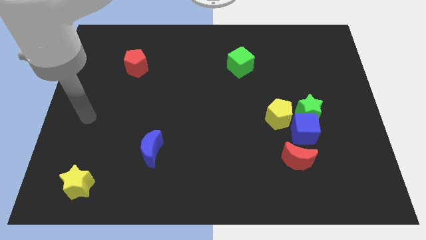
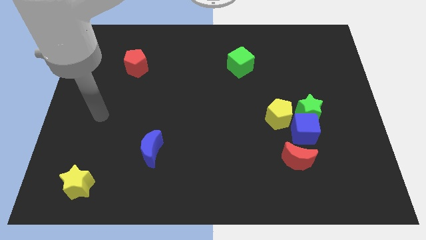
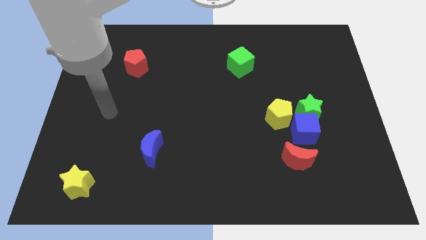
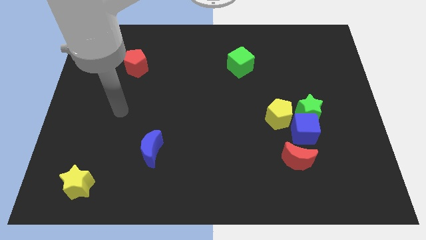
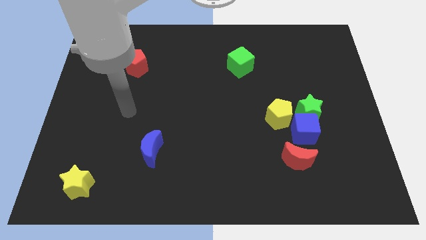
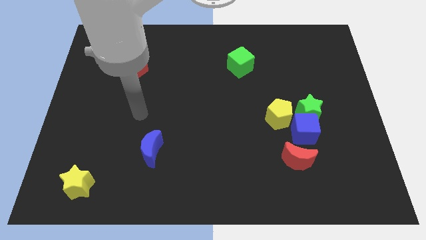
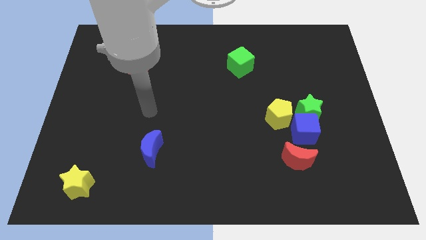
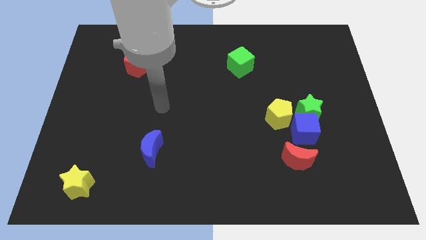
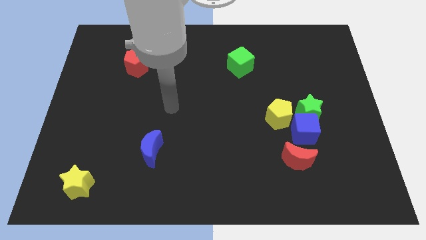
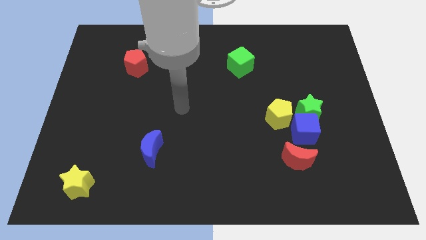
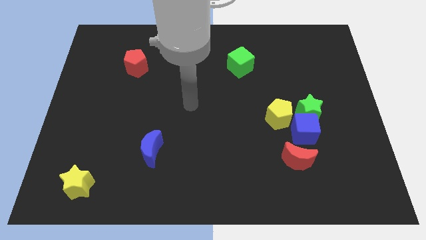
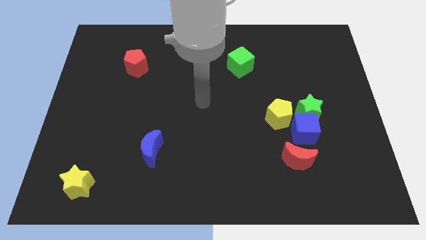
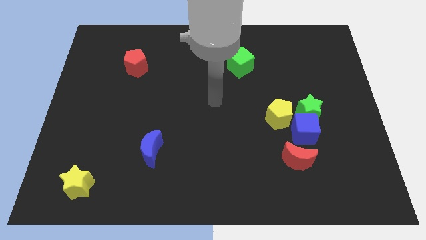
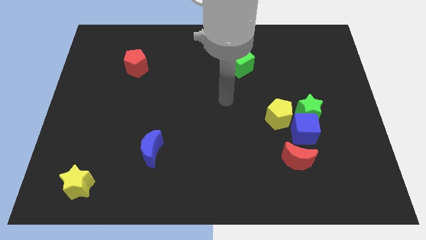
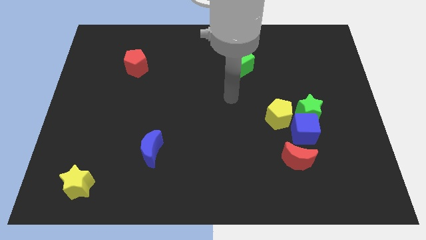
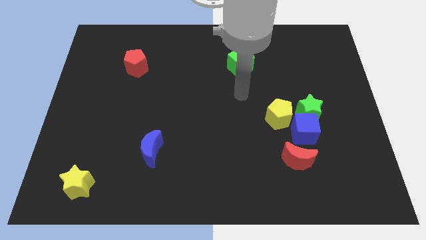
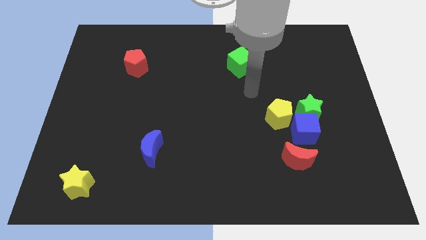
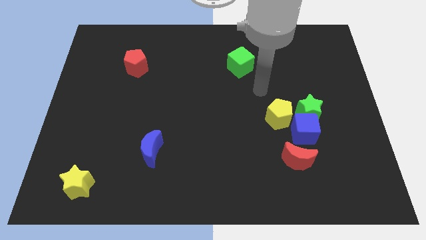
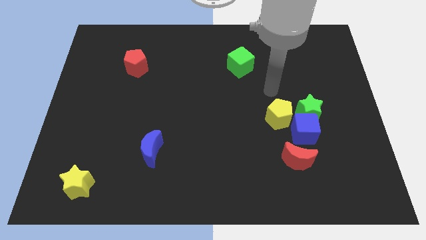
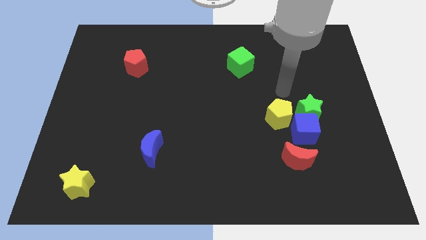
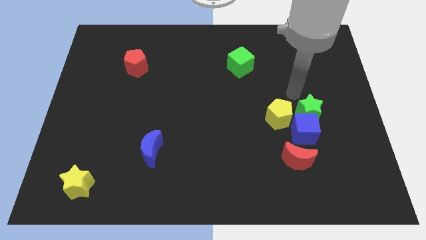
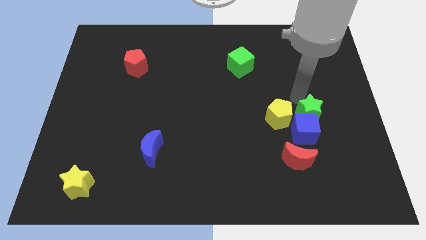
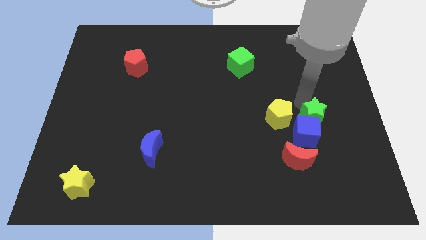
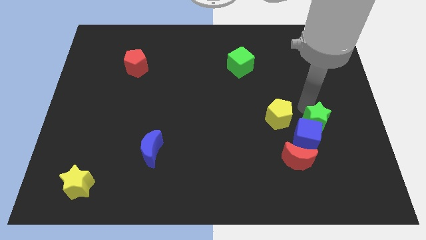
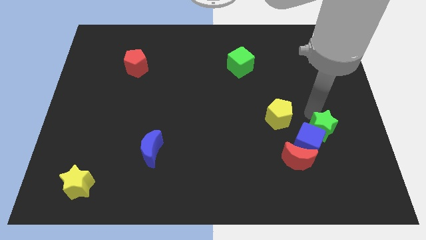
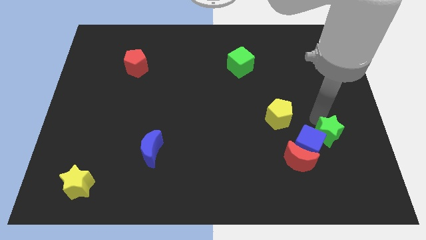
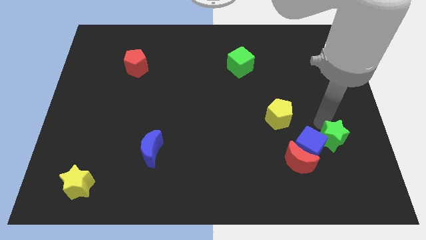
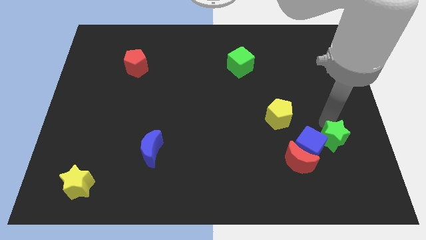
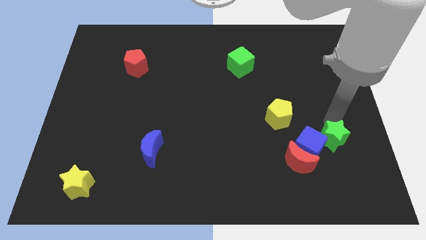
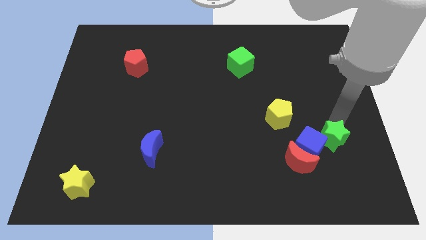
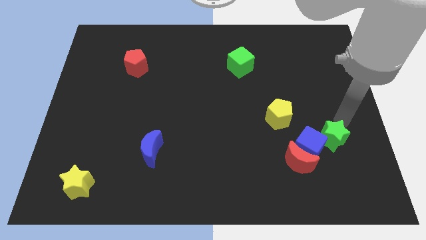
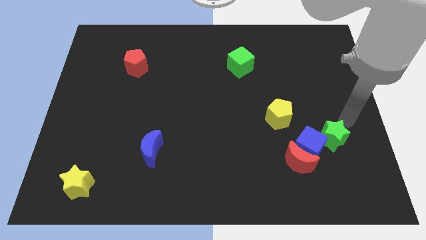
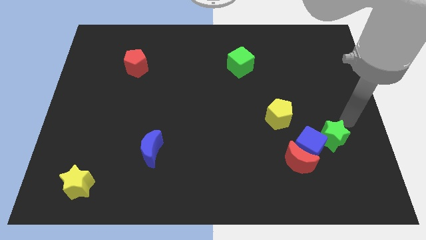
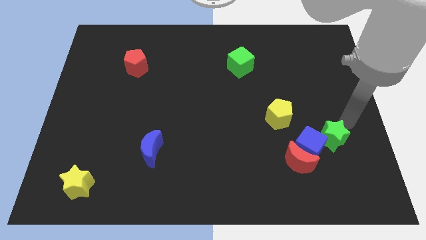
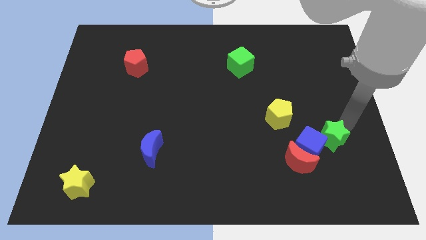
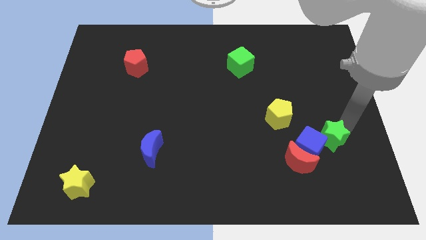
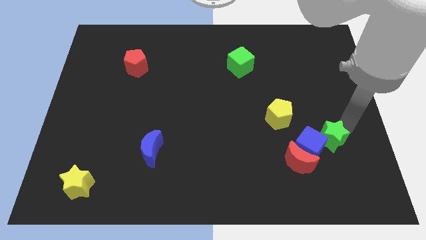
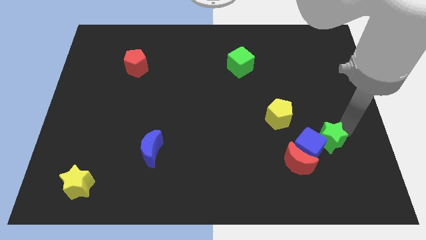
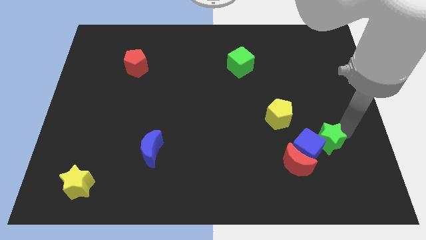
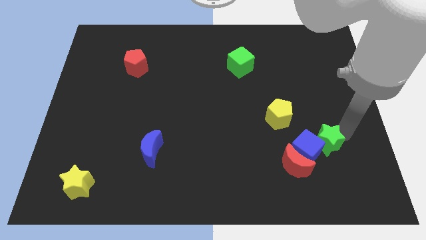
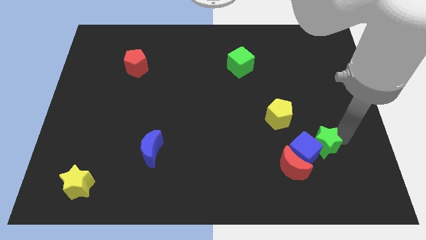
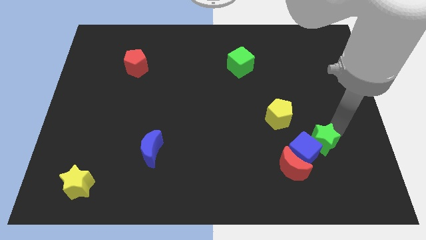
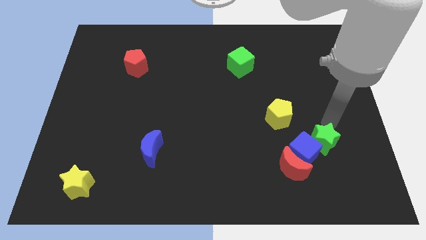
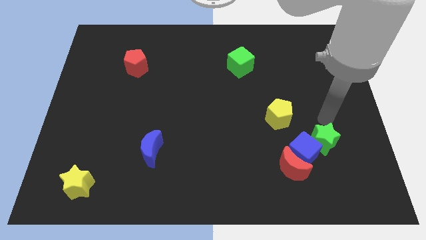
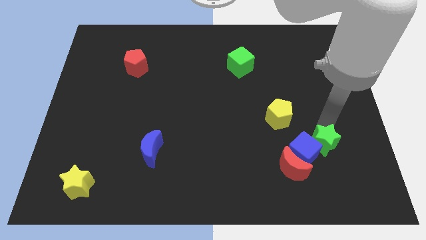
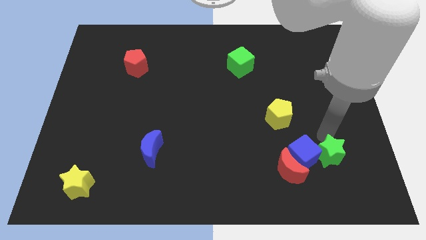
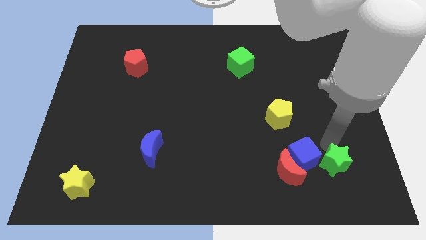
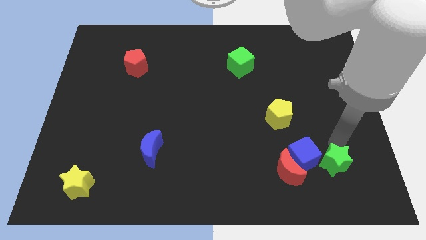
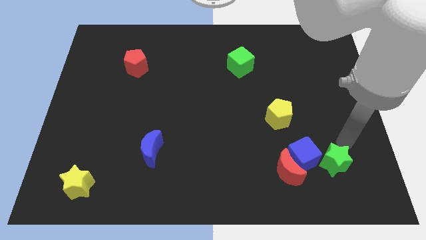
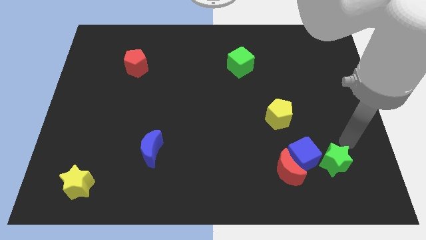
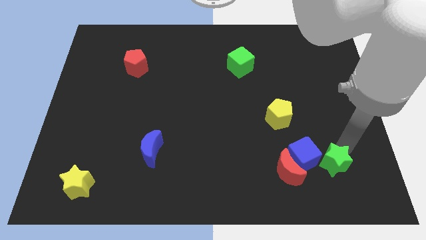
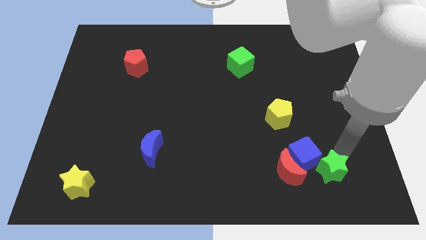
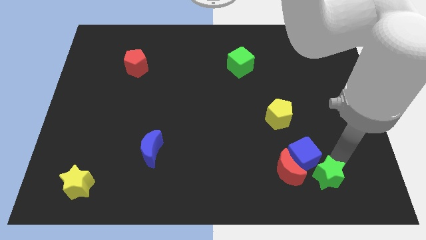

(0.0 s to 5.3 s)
push the green star to the bottom right of the red moon

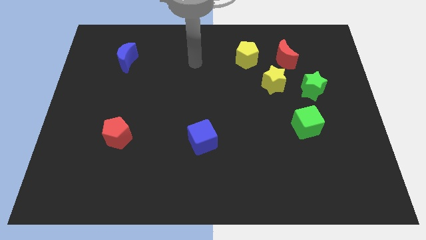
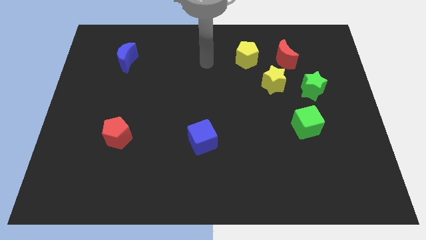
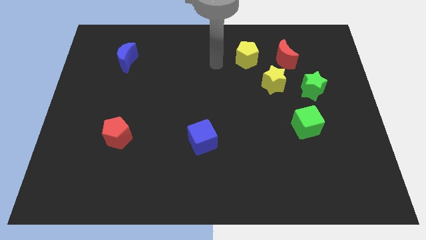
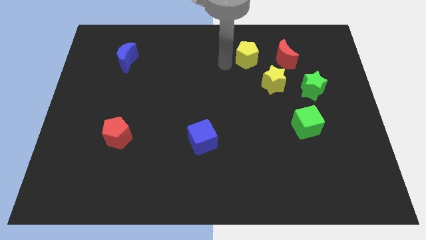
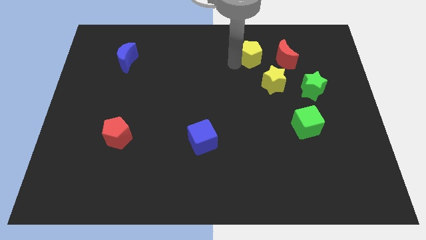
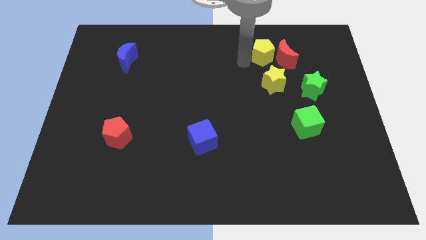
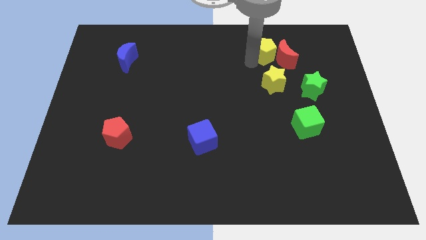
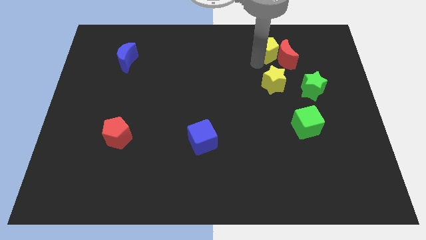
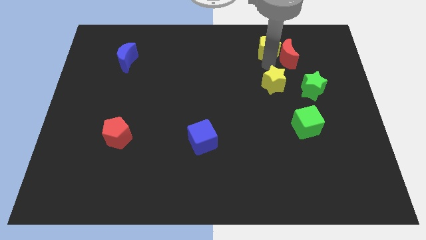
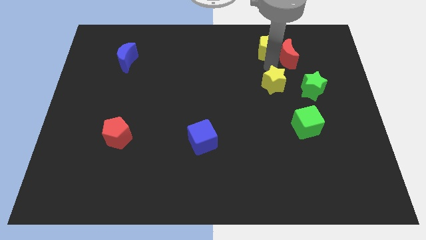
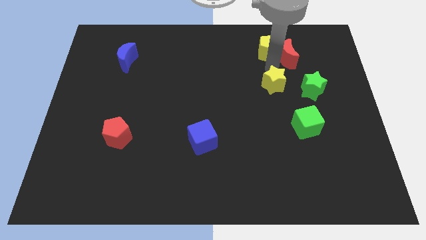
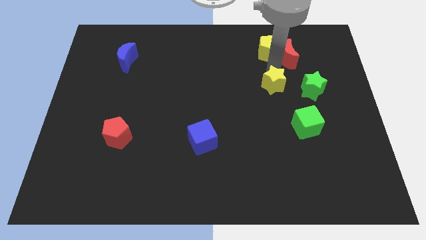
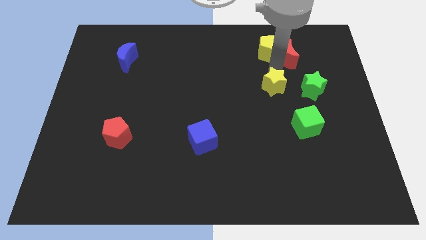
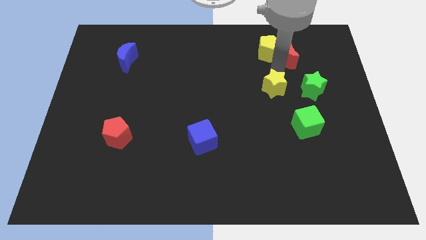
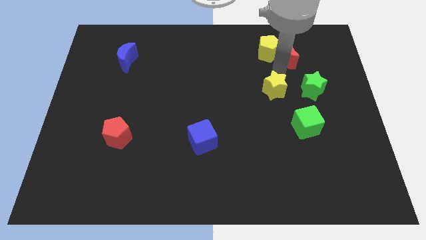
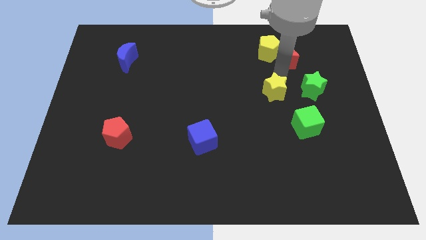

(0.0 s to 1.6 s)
slide the yellow star to the top left of the green cube
